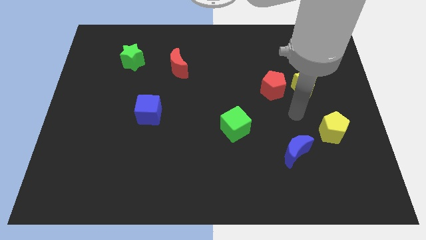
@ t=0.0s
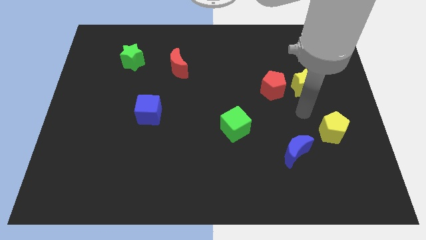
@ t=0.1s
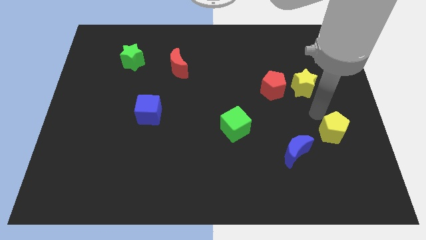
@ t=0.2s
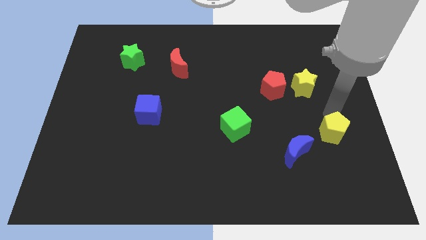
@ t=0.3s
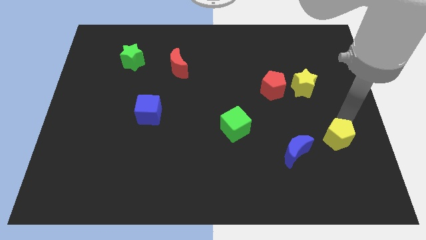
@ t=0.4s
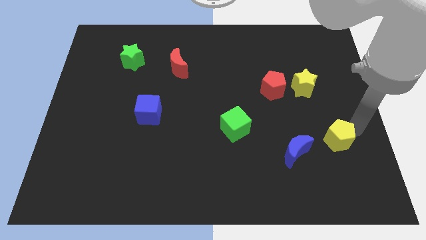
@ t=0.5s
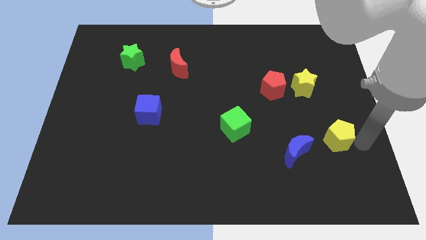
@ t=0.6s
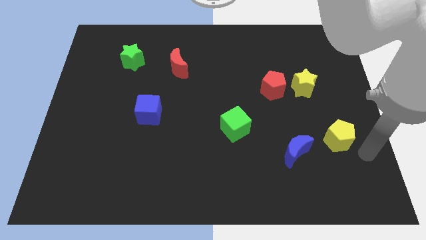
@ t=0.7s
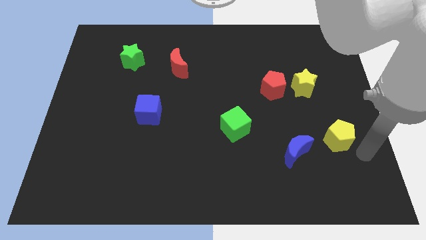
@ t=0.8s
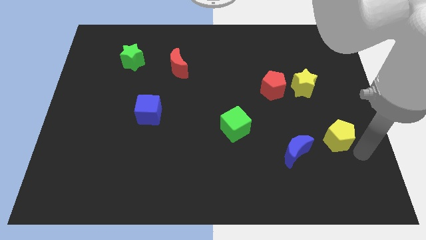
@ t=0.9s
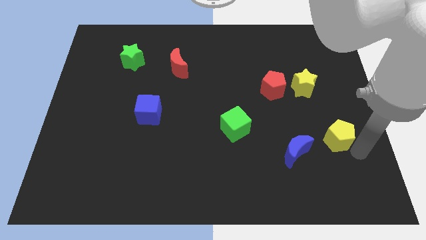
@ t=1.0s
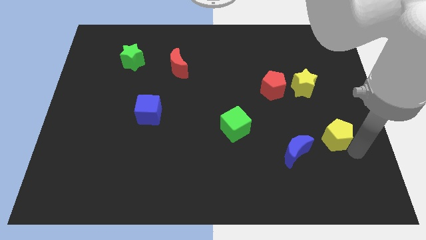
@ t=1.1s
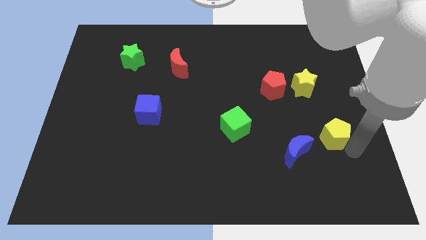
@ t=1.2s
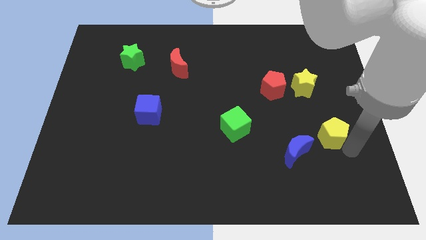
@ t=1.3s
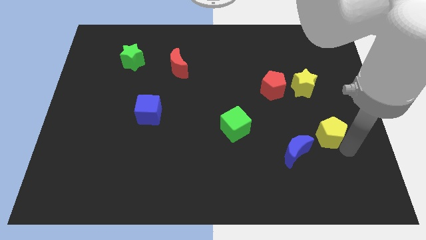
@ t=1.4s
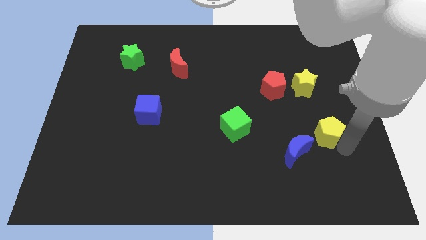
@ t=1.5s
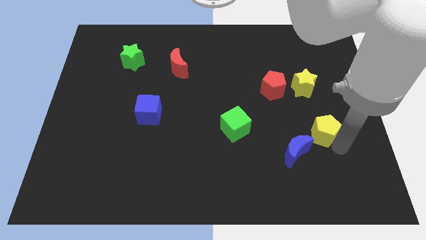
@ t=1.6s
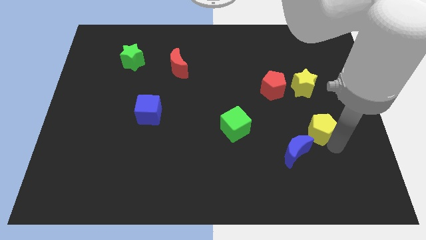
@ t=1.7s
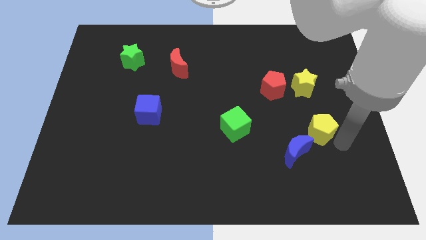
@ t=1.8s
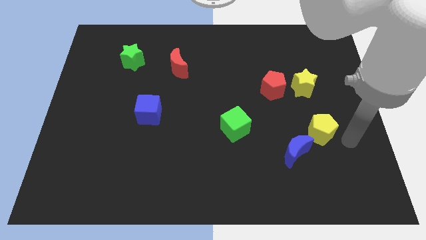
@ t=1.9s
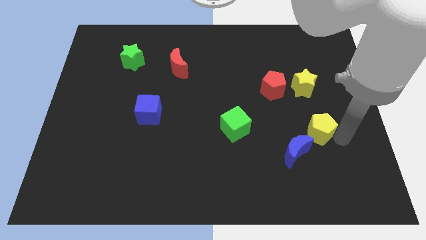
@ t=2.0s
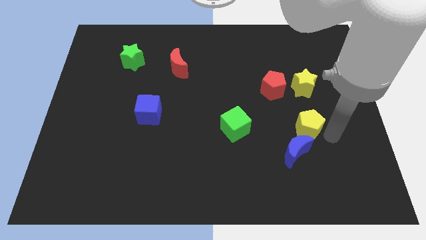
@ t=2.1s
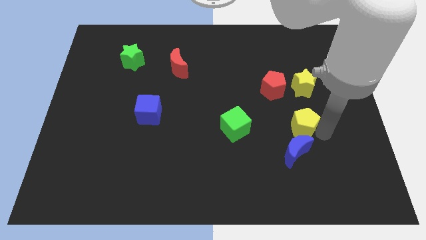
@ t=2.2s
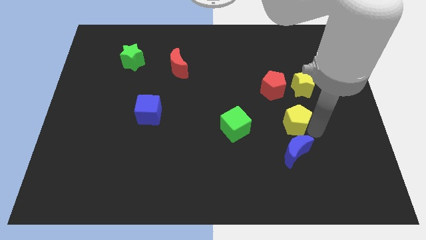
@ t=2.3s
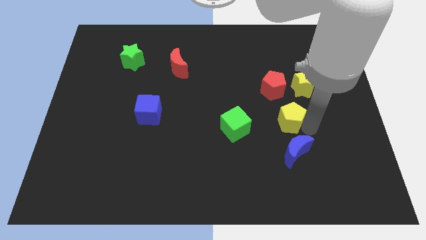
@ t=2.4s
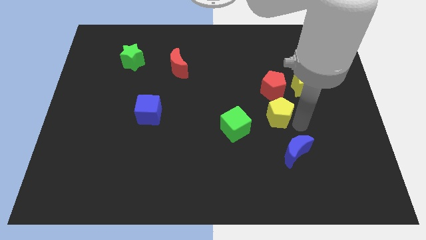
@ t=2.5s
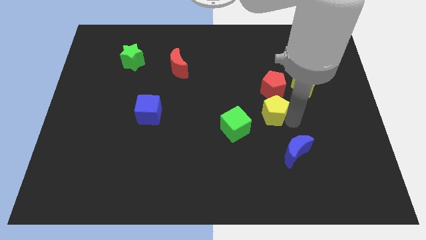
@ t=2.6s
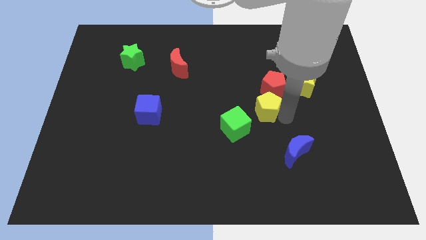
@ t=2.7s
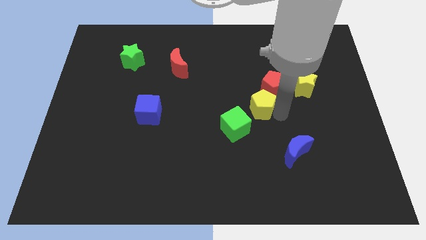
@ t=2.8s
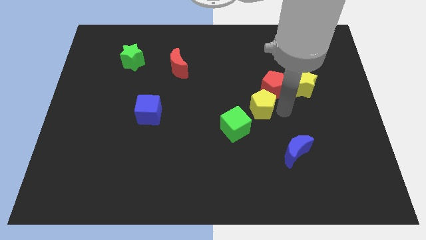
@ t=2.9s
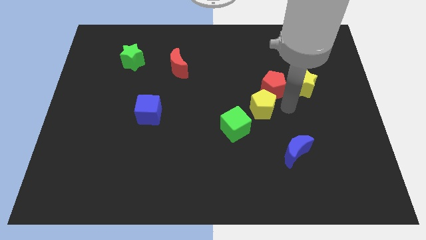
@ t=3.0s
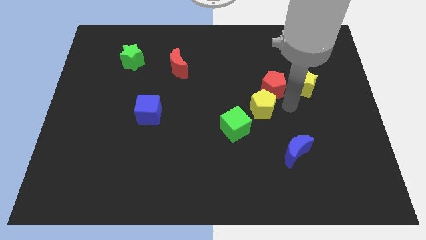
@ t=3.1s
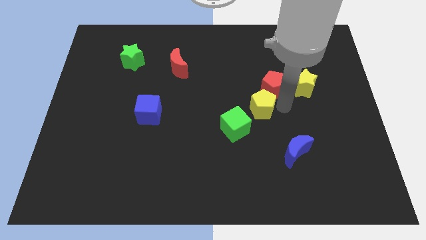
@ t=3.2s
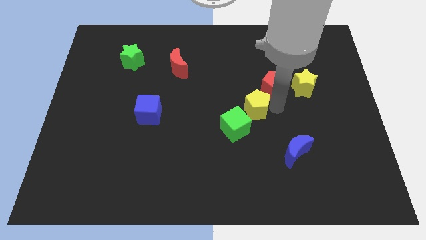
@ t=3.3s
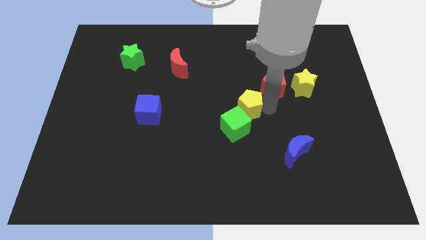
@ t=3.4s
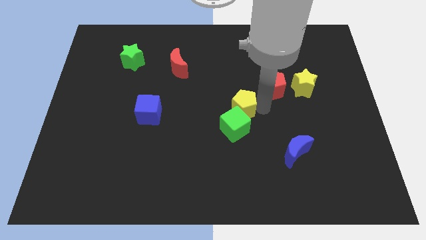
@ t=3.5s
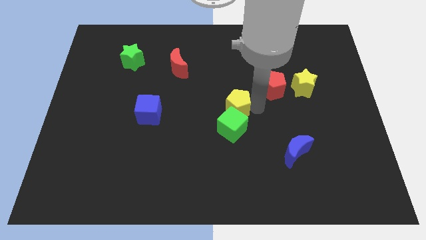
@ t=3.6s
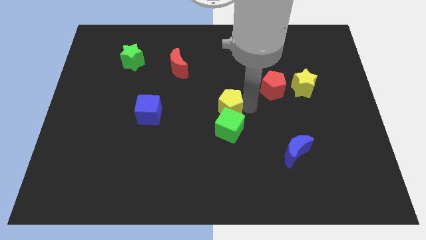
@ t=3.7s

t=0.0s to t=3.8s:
push the yellow pentagon to the left

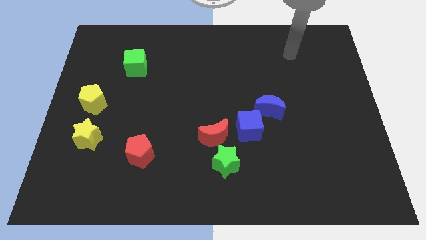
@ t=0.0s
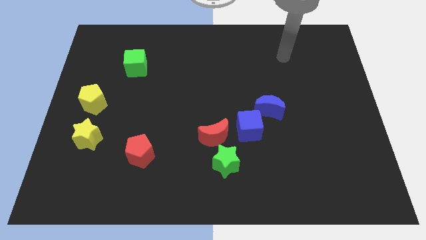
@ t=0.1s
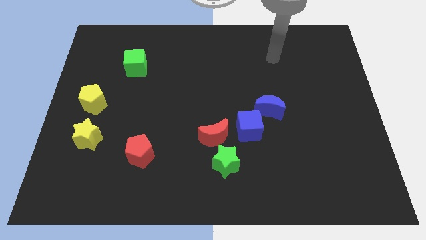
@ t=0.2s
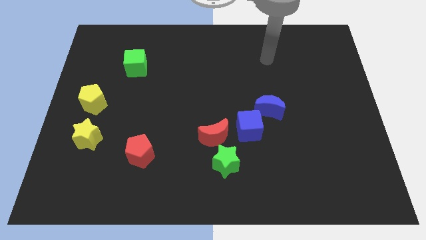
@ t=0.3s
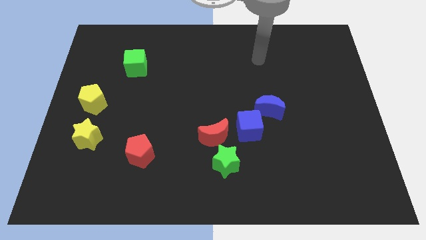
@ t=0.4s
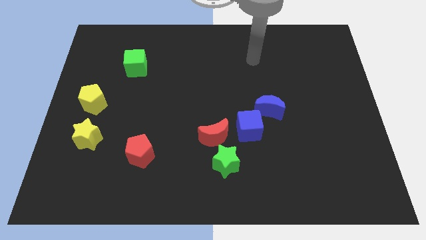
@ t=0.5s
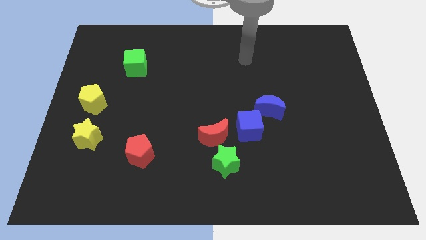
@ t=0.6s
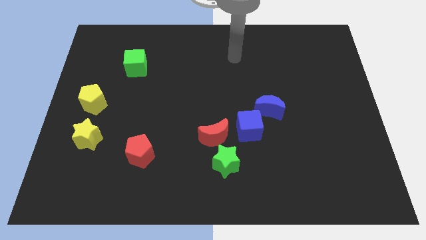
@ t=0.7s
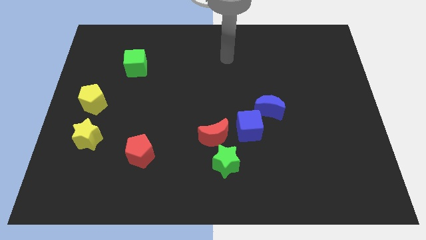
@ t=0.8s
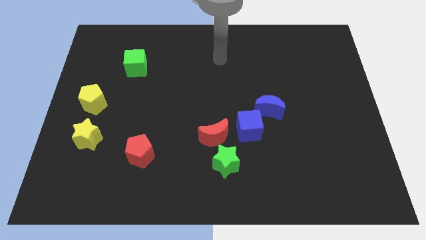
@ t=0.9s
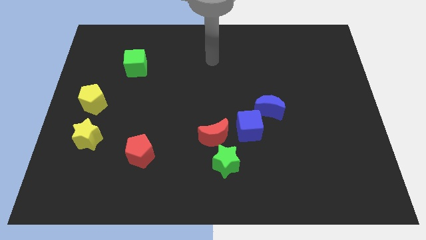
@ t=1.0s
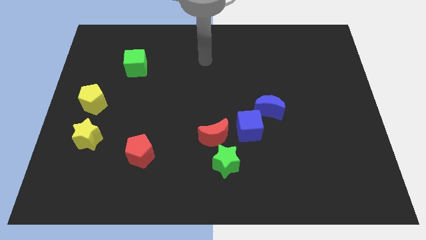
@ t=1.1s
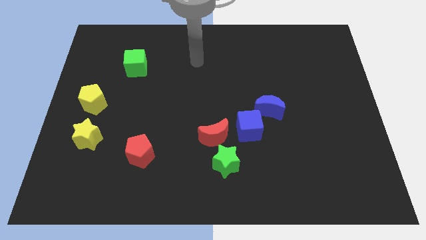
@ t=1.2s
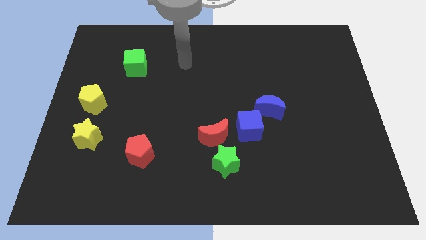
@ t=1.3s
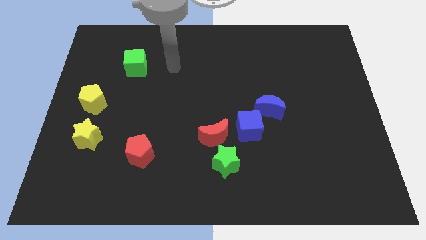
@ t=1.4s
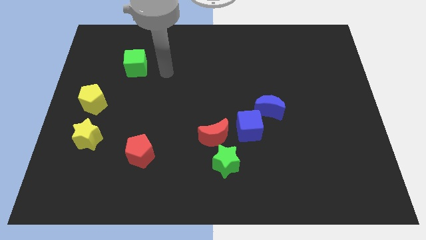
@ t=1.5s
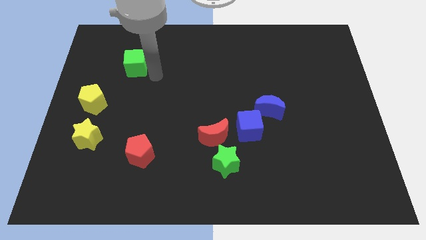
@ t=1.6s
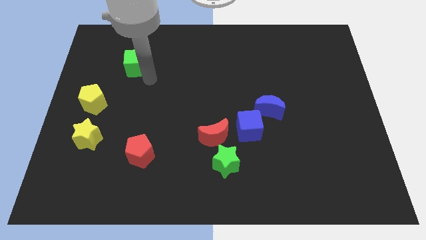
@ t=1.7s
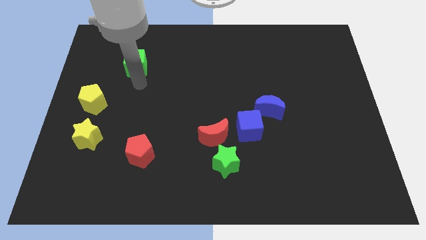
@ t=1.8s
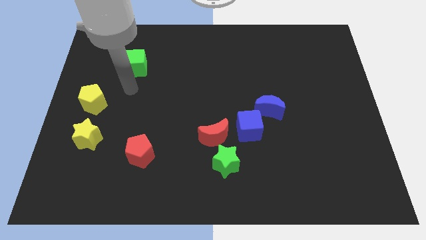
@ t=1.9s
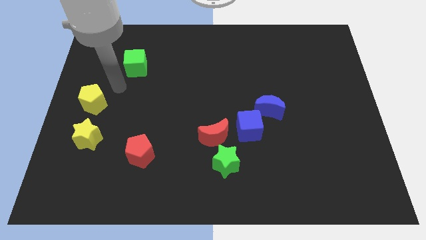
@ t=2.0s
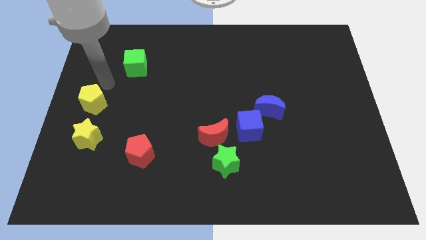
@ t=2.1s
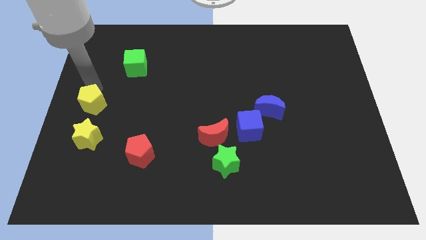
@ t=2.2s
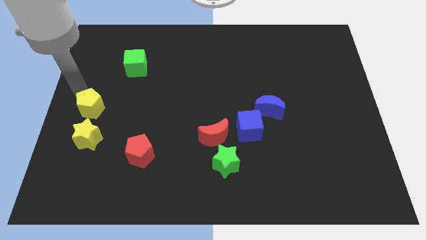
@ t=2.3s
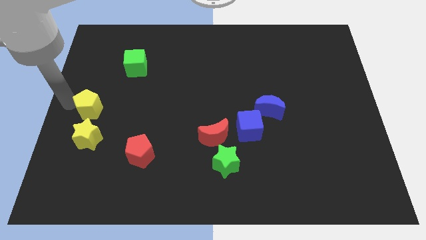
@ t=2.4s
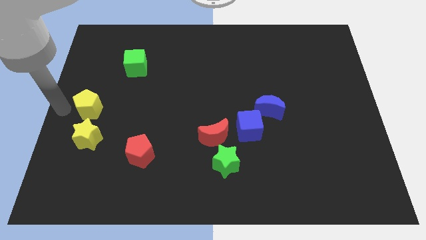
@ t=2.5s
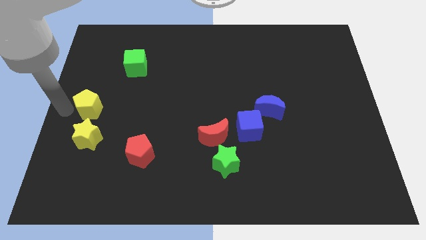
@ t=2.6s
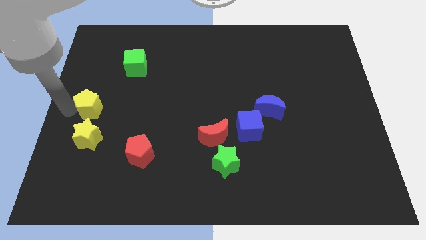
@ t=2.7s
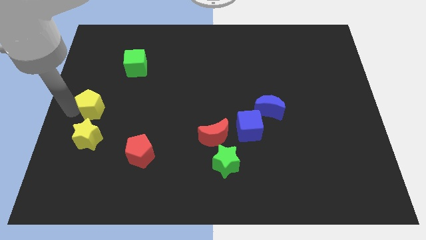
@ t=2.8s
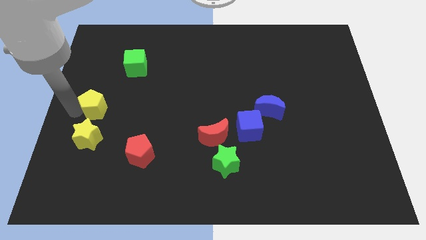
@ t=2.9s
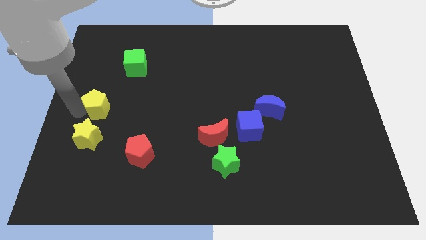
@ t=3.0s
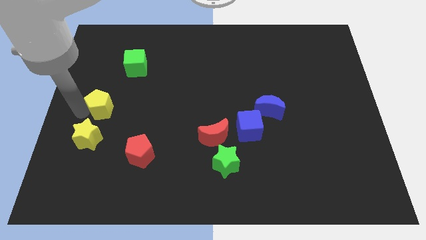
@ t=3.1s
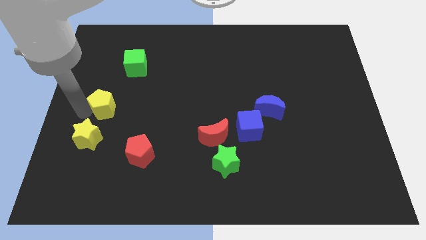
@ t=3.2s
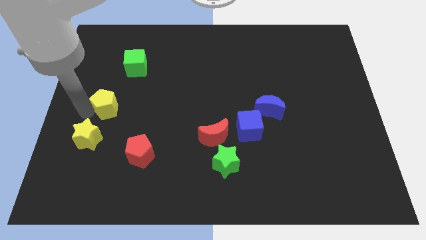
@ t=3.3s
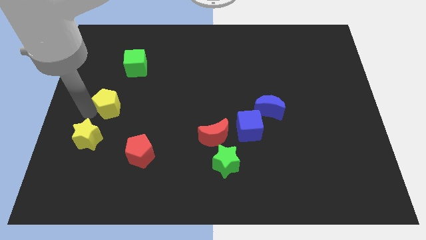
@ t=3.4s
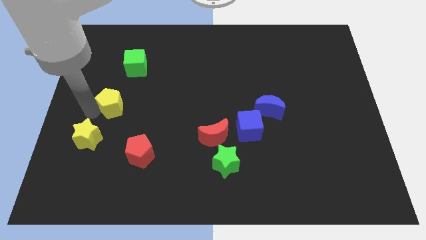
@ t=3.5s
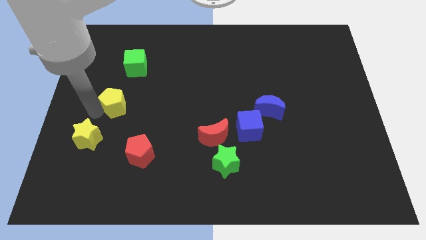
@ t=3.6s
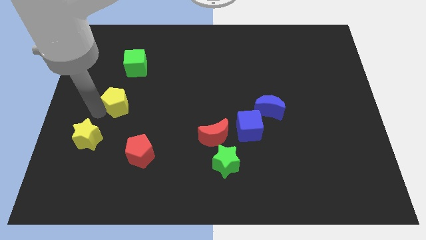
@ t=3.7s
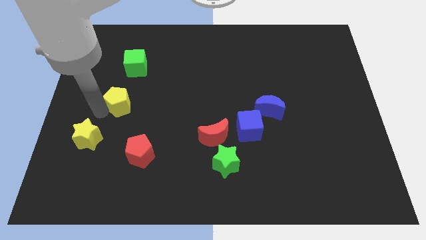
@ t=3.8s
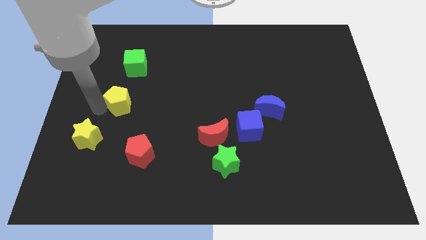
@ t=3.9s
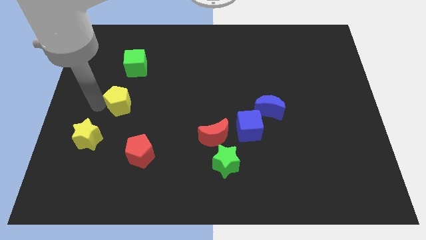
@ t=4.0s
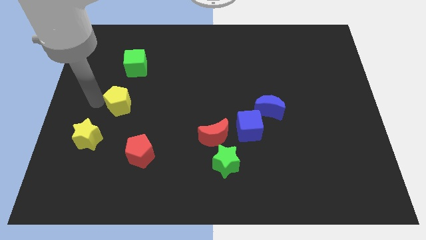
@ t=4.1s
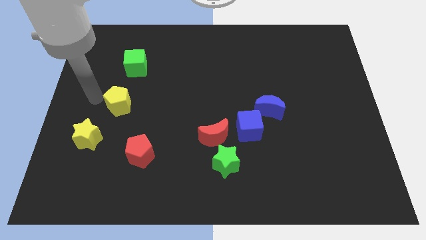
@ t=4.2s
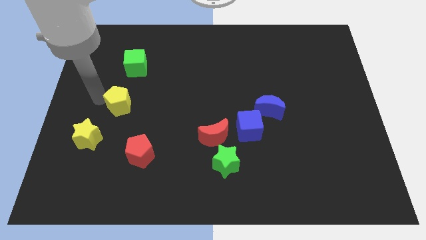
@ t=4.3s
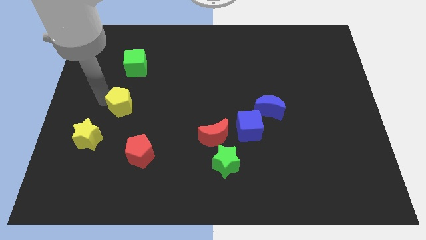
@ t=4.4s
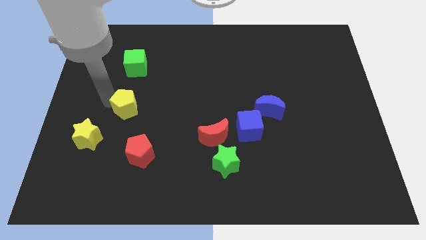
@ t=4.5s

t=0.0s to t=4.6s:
push the yellow pentagon a bit right
